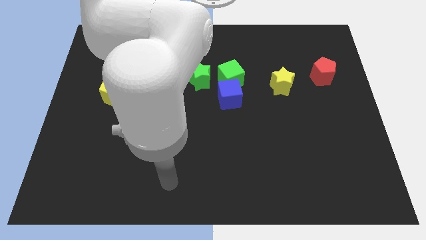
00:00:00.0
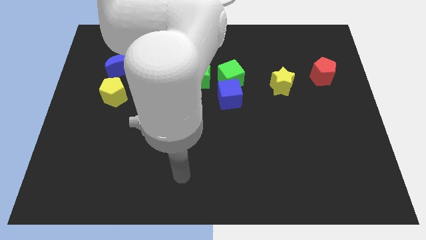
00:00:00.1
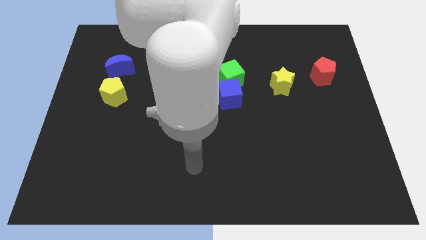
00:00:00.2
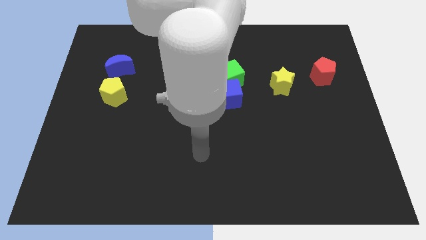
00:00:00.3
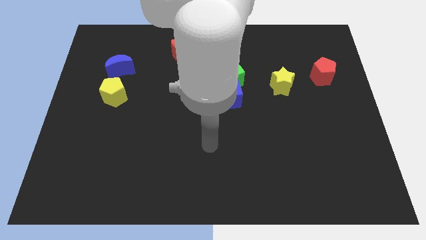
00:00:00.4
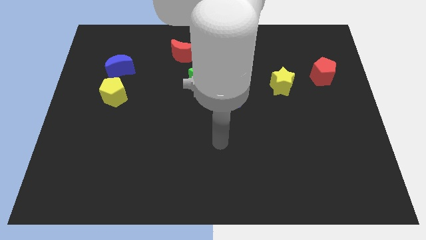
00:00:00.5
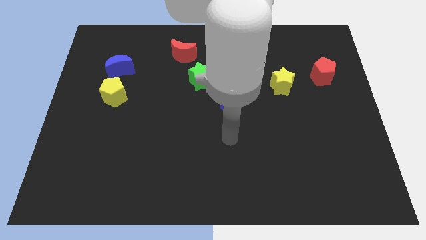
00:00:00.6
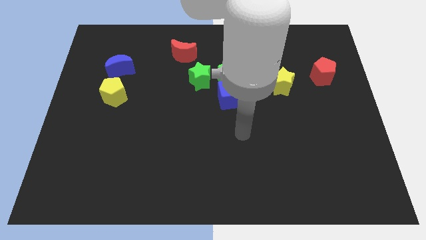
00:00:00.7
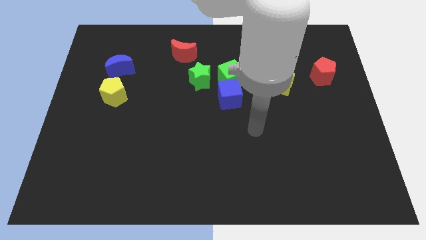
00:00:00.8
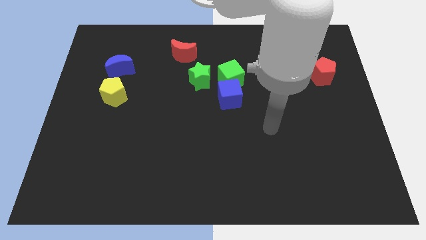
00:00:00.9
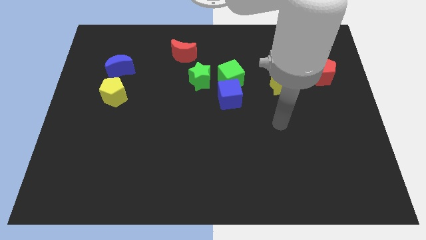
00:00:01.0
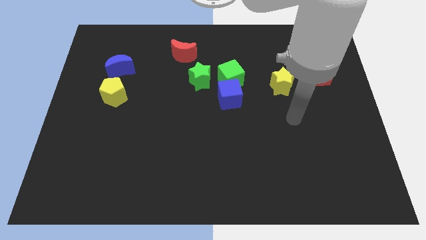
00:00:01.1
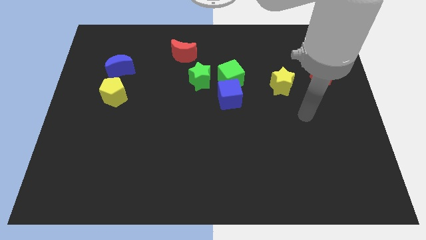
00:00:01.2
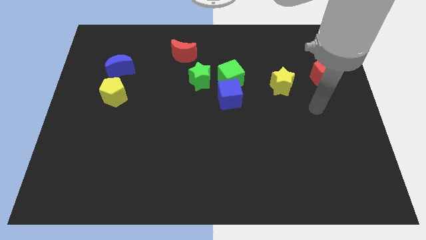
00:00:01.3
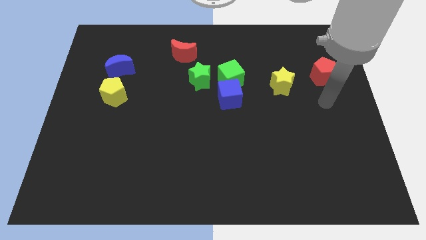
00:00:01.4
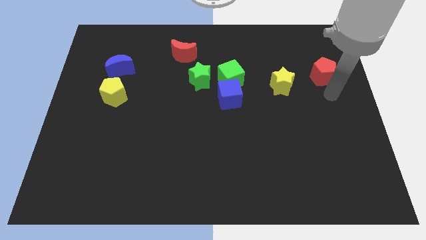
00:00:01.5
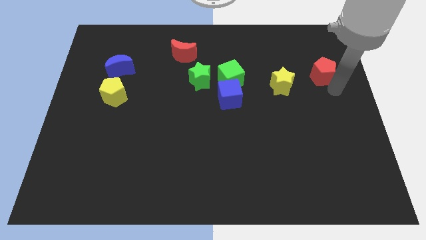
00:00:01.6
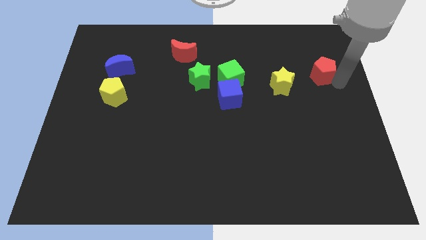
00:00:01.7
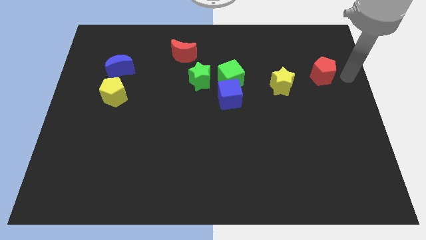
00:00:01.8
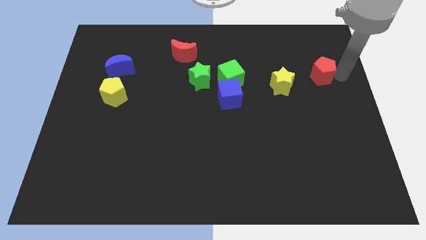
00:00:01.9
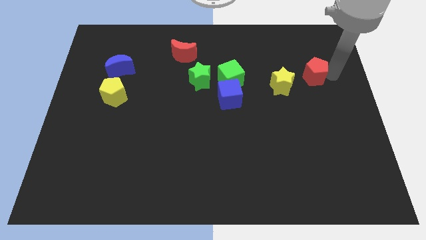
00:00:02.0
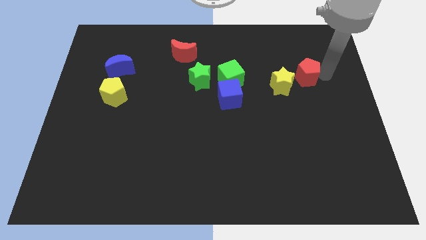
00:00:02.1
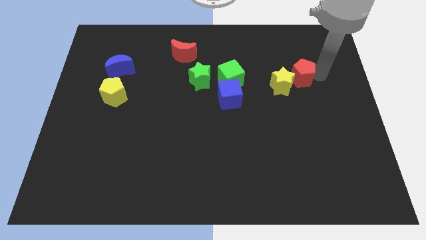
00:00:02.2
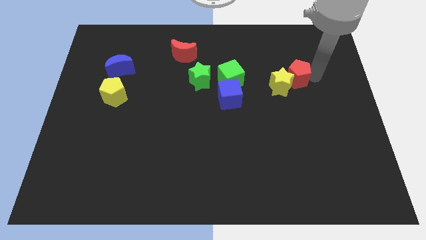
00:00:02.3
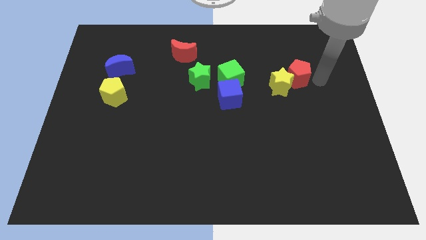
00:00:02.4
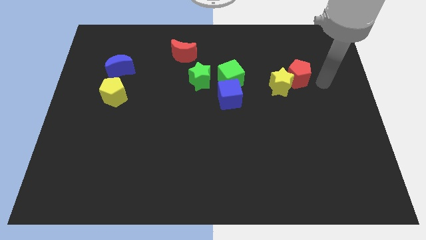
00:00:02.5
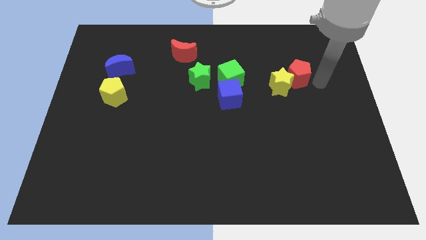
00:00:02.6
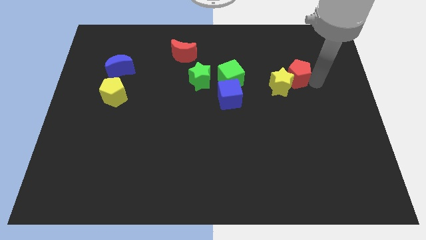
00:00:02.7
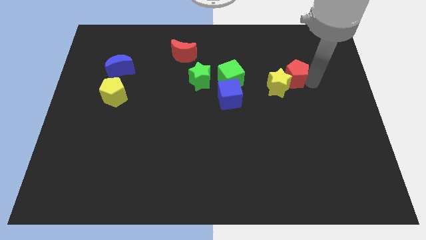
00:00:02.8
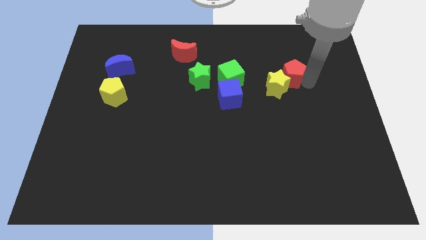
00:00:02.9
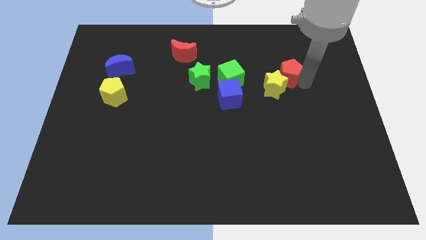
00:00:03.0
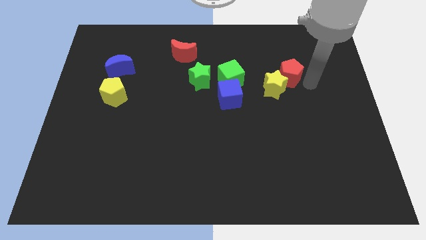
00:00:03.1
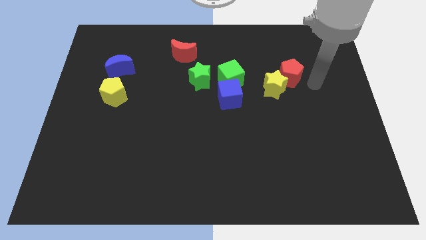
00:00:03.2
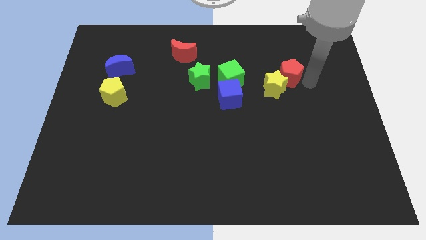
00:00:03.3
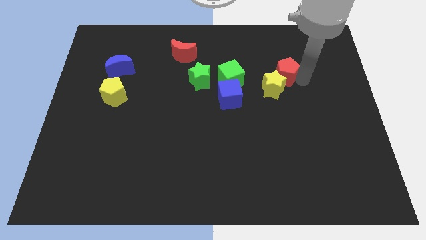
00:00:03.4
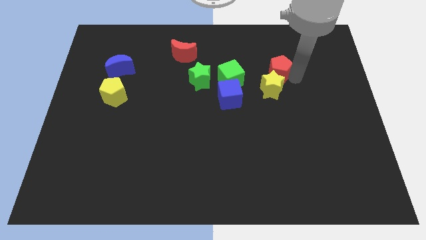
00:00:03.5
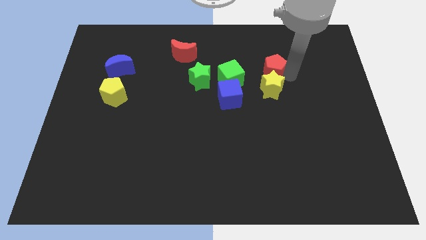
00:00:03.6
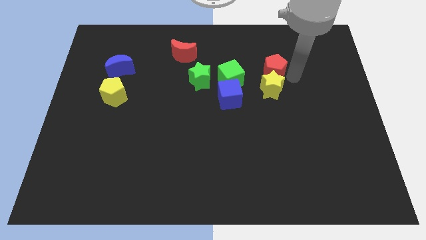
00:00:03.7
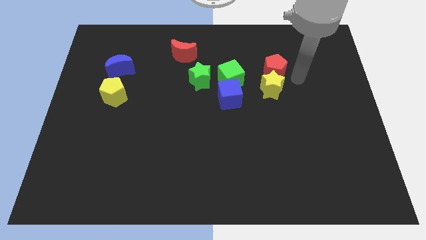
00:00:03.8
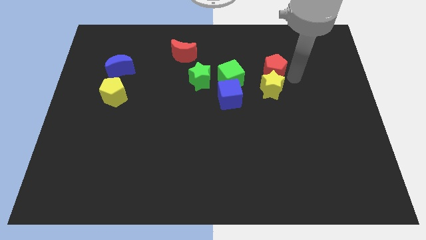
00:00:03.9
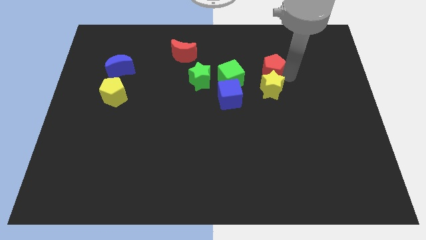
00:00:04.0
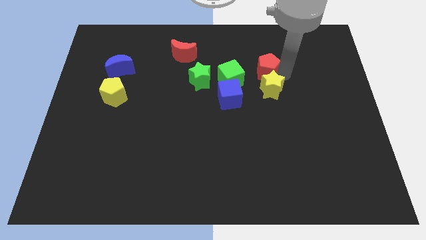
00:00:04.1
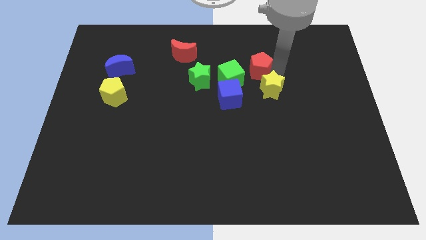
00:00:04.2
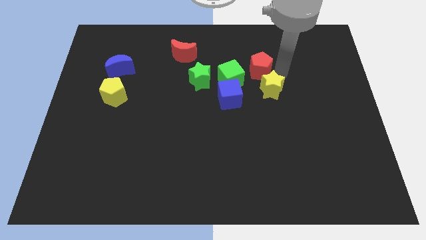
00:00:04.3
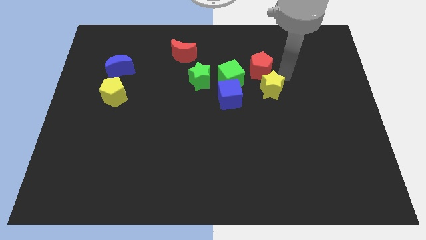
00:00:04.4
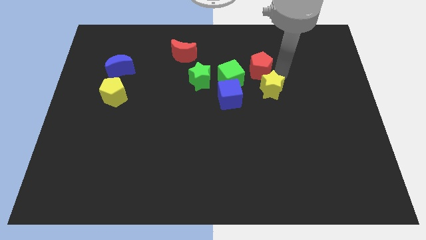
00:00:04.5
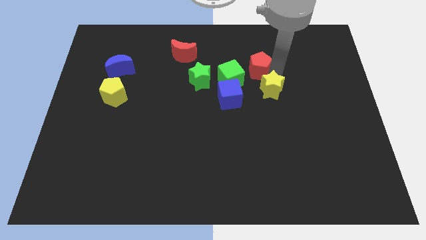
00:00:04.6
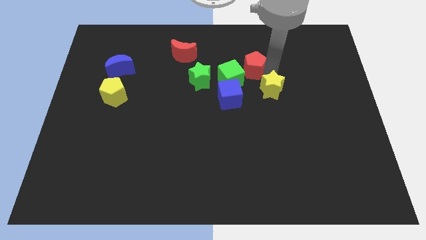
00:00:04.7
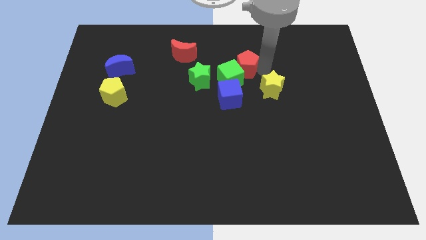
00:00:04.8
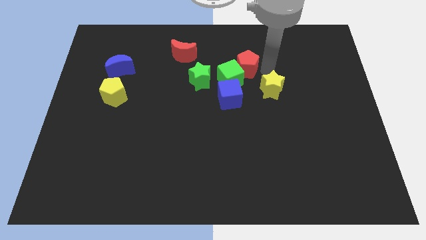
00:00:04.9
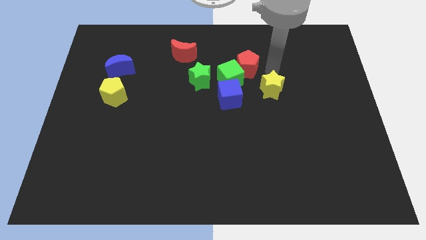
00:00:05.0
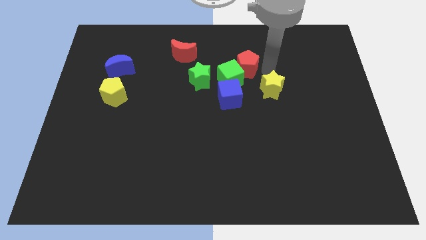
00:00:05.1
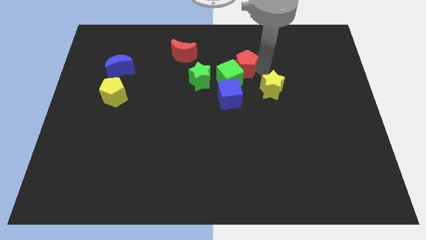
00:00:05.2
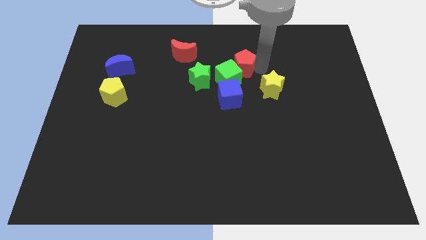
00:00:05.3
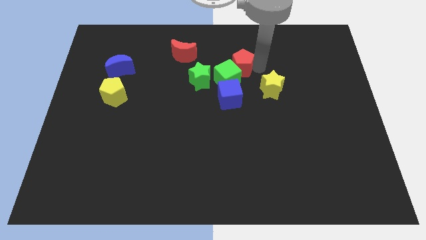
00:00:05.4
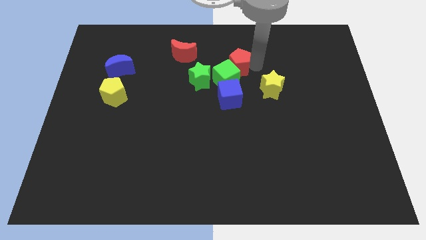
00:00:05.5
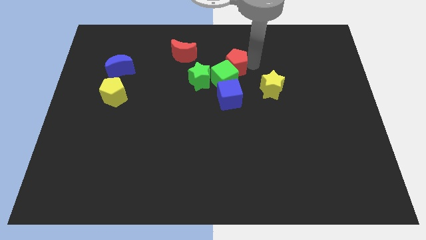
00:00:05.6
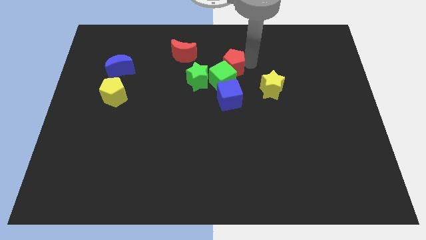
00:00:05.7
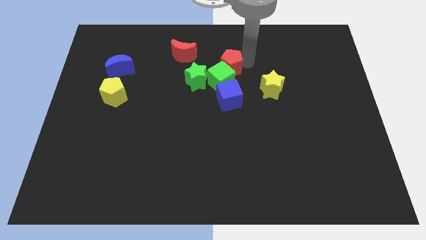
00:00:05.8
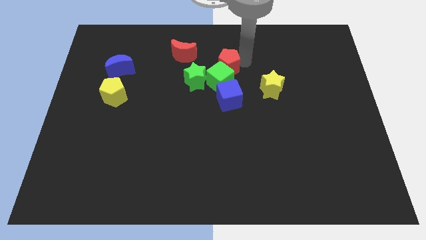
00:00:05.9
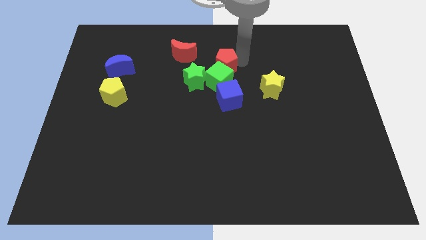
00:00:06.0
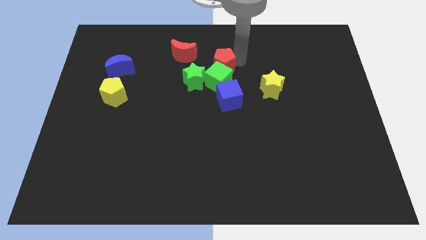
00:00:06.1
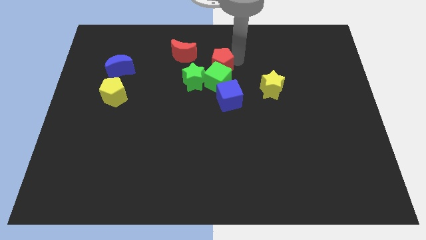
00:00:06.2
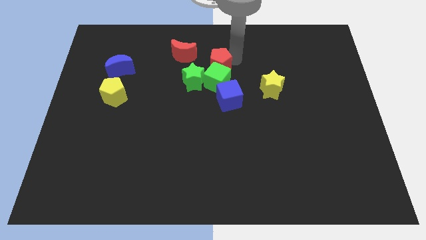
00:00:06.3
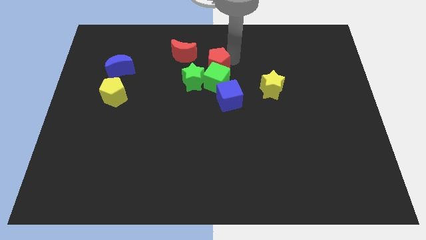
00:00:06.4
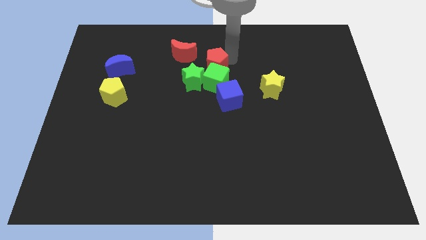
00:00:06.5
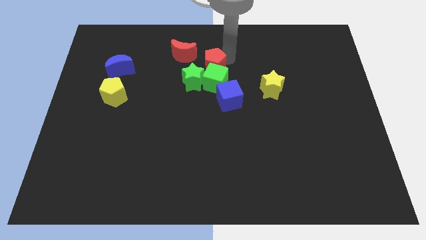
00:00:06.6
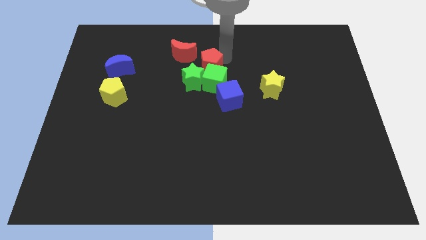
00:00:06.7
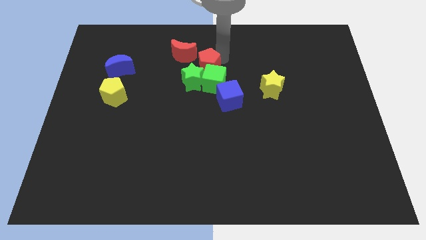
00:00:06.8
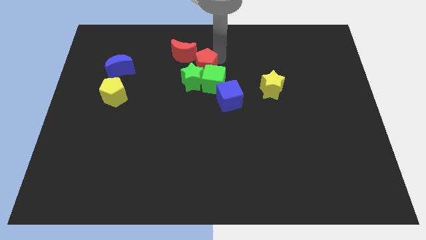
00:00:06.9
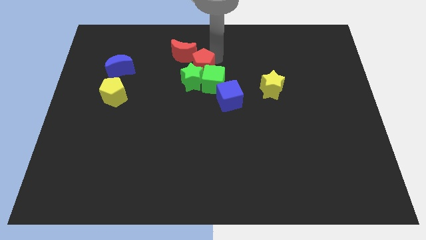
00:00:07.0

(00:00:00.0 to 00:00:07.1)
slide the red pentagon to the green star
